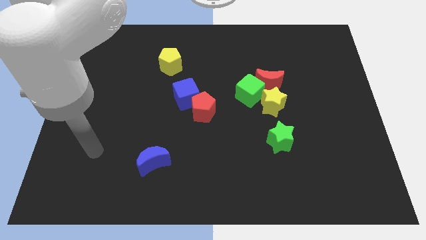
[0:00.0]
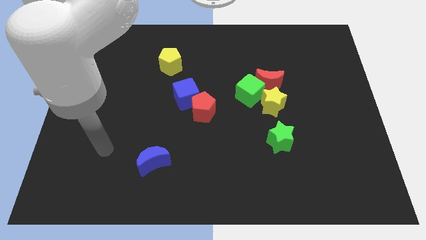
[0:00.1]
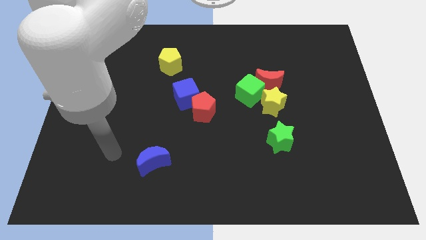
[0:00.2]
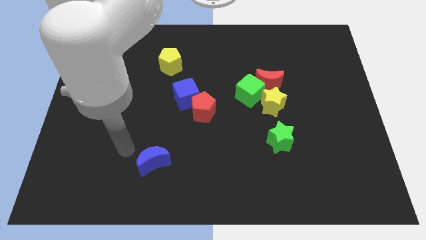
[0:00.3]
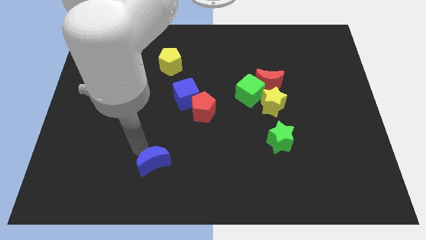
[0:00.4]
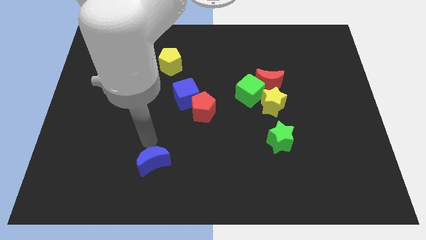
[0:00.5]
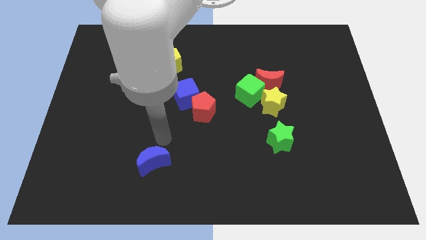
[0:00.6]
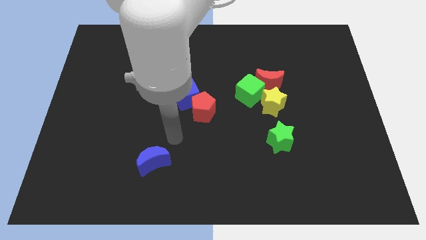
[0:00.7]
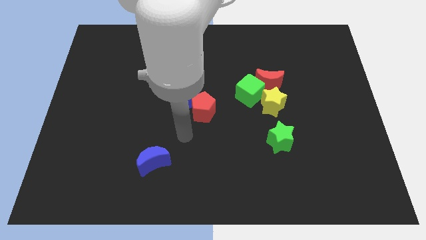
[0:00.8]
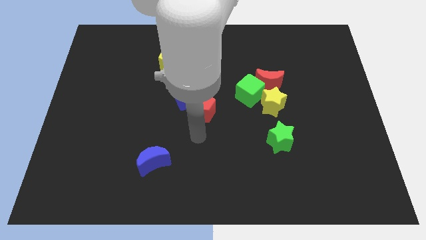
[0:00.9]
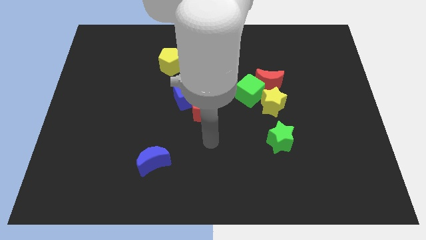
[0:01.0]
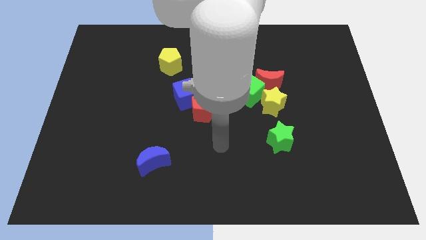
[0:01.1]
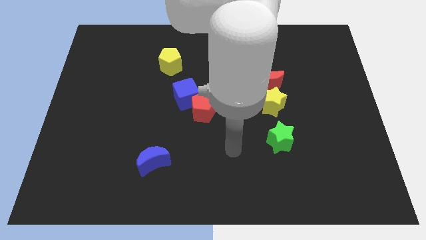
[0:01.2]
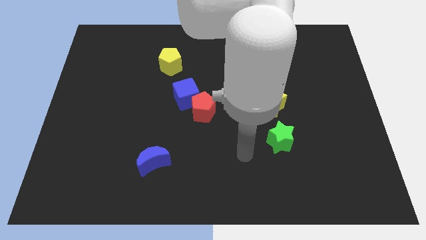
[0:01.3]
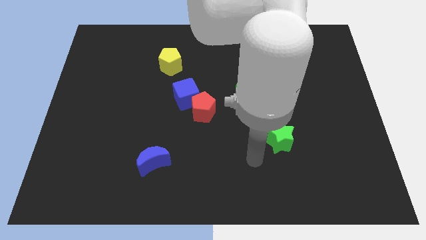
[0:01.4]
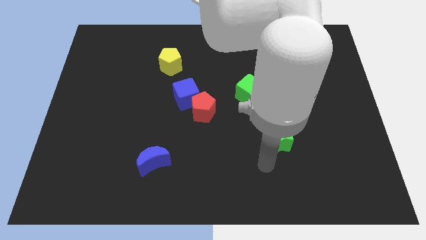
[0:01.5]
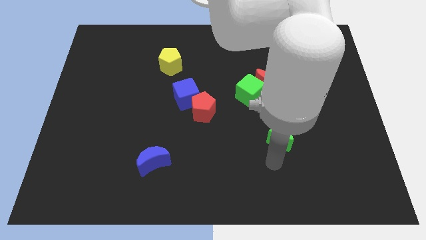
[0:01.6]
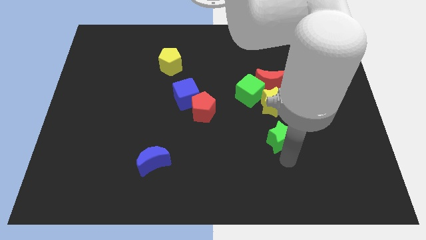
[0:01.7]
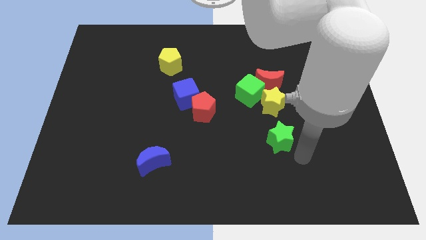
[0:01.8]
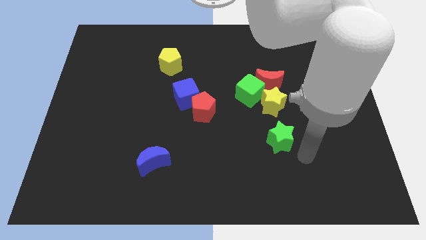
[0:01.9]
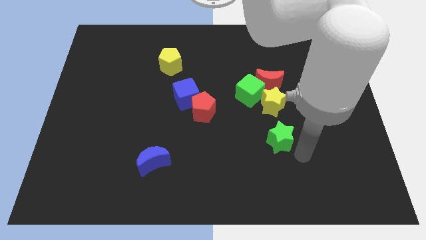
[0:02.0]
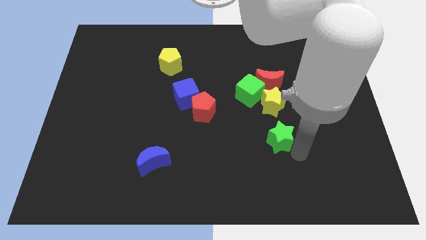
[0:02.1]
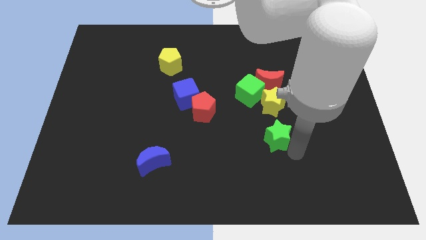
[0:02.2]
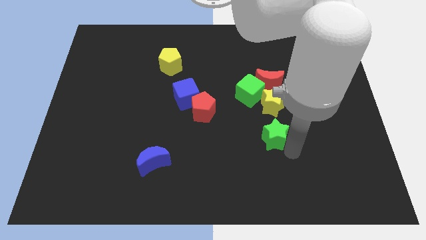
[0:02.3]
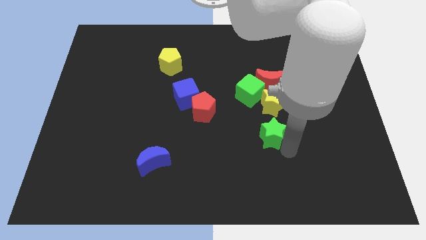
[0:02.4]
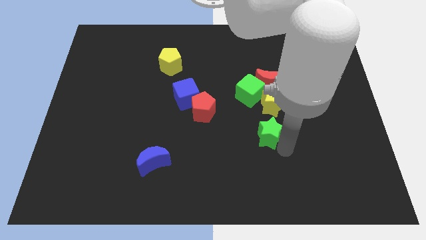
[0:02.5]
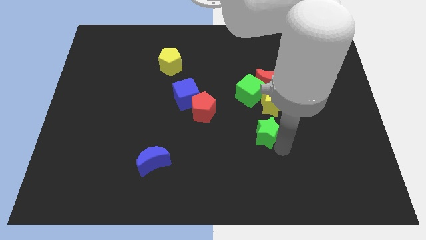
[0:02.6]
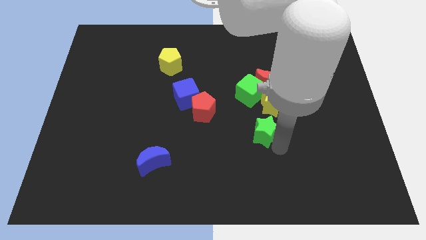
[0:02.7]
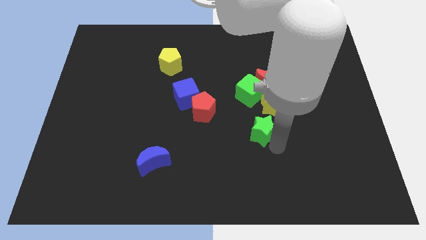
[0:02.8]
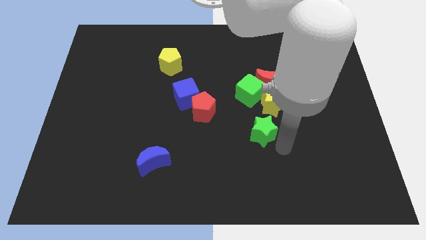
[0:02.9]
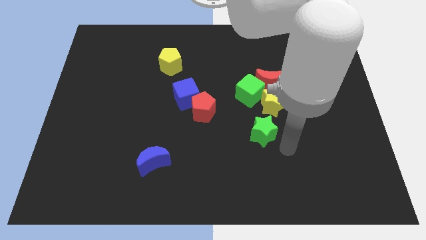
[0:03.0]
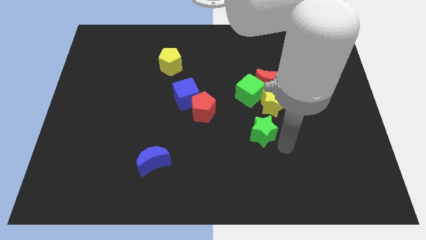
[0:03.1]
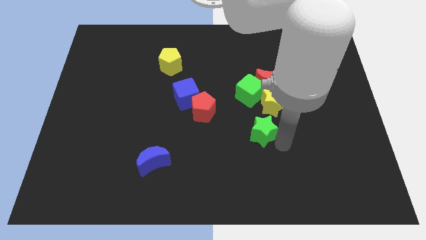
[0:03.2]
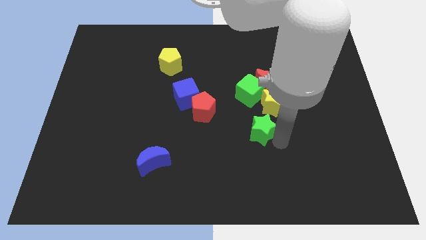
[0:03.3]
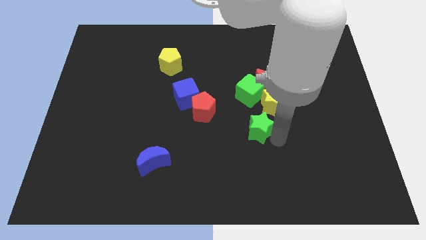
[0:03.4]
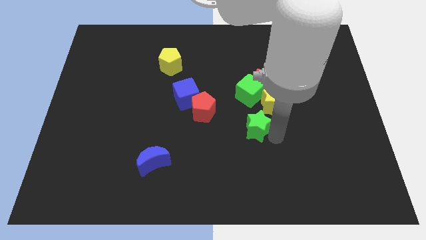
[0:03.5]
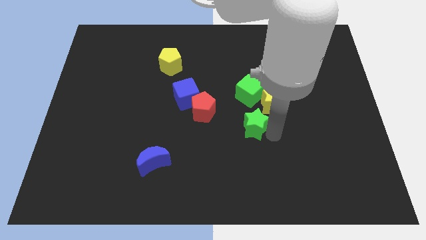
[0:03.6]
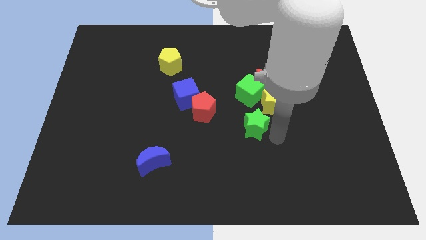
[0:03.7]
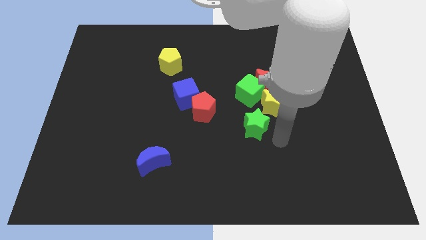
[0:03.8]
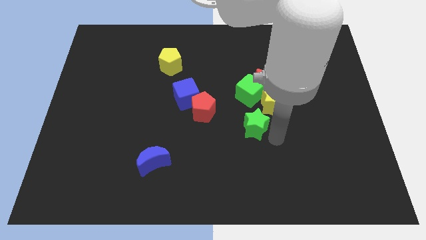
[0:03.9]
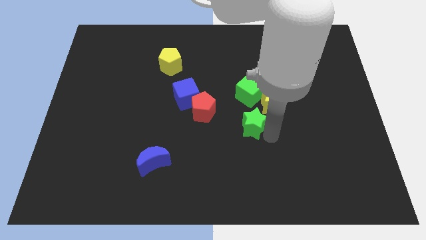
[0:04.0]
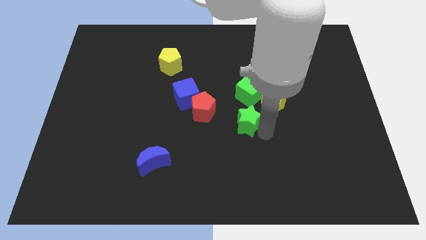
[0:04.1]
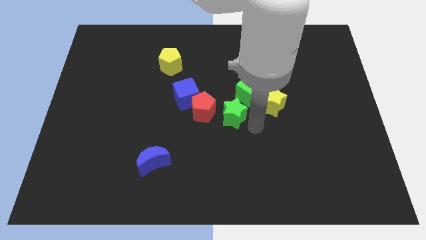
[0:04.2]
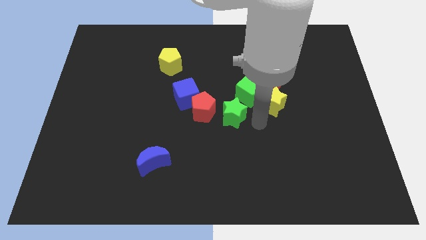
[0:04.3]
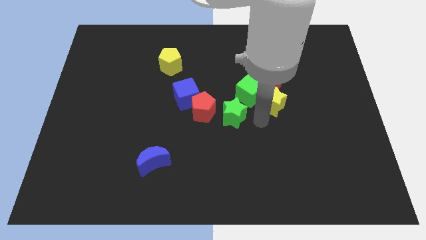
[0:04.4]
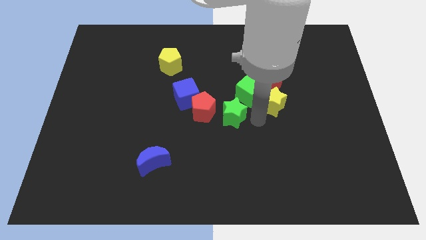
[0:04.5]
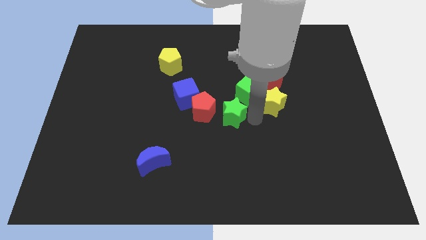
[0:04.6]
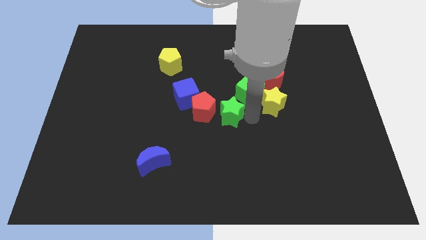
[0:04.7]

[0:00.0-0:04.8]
put the green star next to the red pentagon

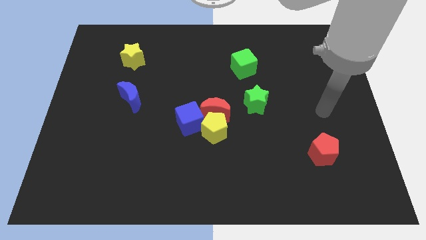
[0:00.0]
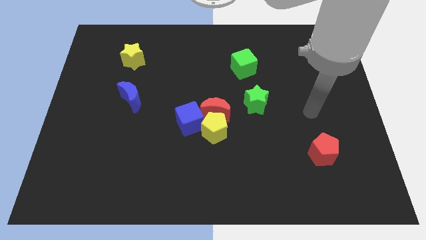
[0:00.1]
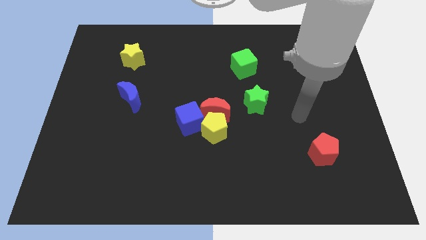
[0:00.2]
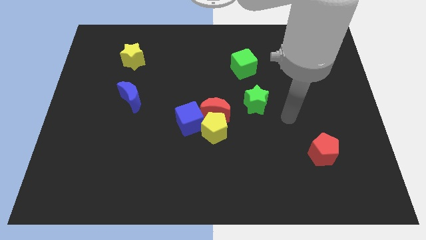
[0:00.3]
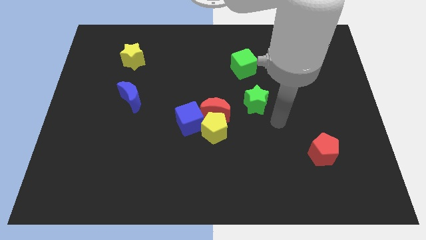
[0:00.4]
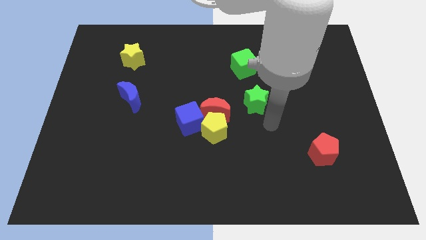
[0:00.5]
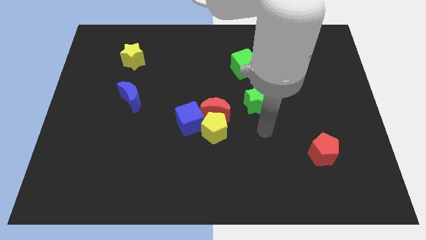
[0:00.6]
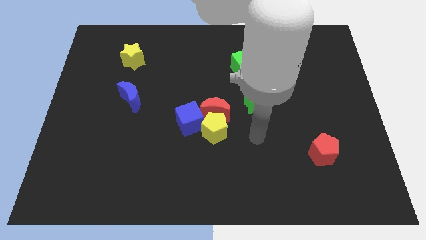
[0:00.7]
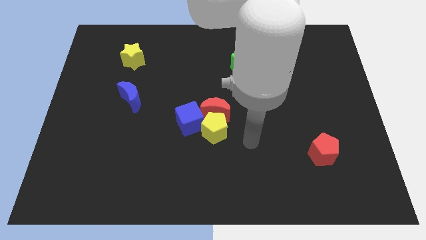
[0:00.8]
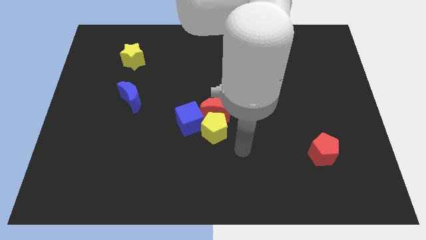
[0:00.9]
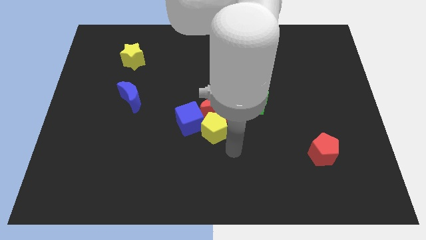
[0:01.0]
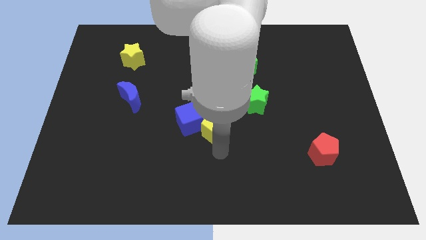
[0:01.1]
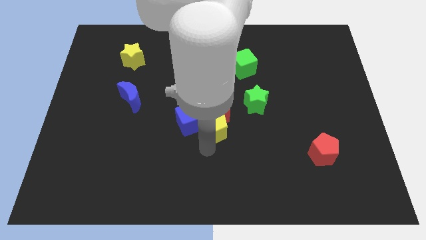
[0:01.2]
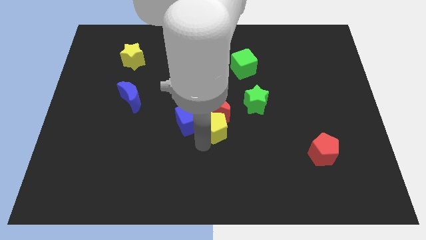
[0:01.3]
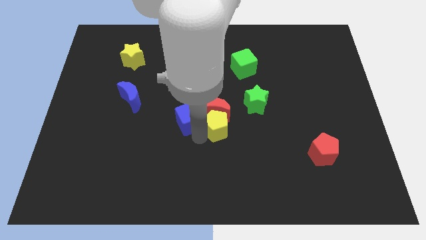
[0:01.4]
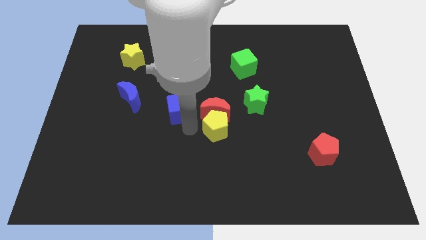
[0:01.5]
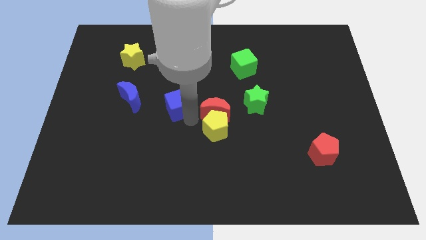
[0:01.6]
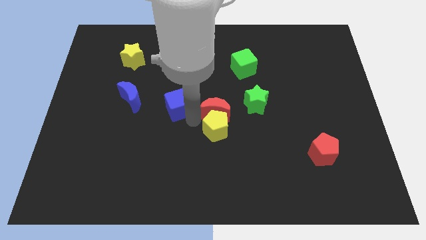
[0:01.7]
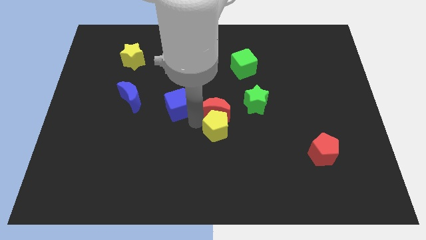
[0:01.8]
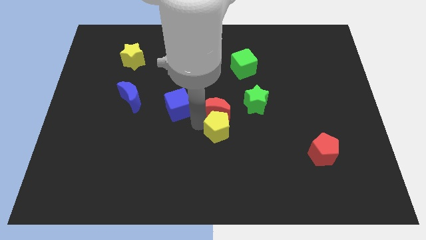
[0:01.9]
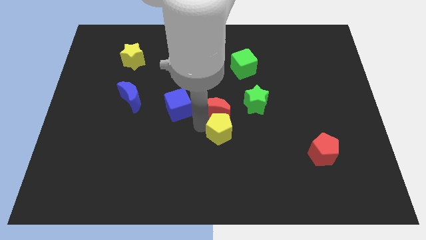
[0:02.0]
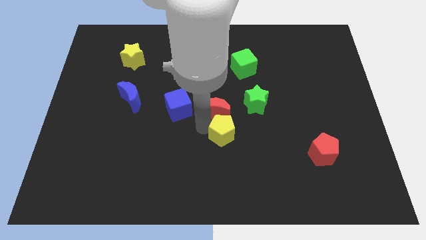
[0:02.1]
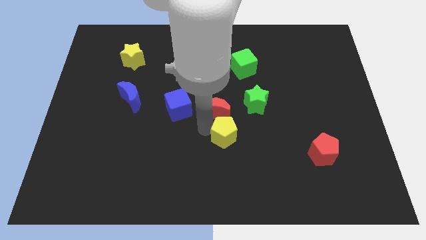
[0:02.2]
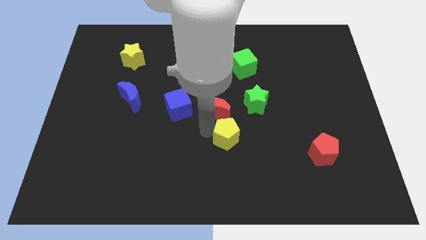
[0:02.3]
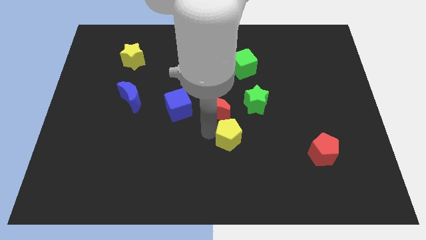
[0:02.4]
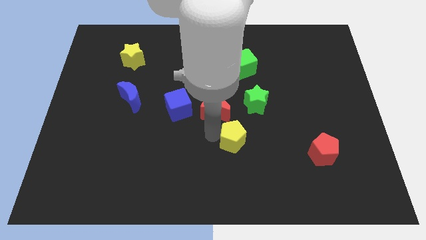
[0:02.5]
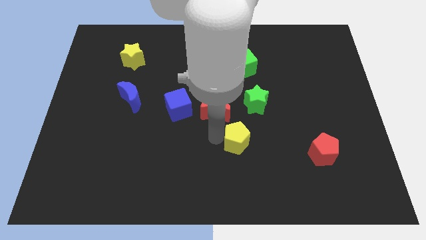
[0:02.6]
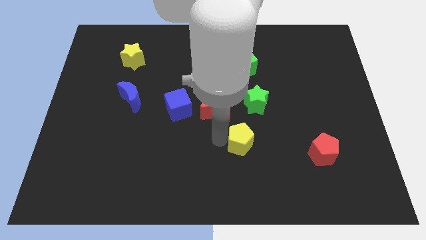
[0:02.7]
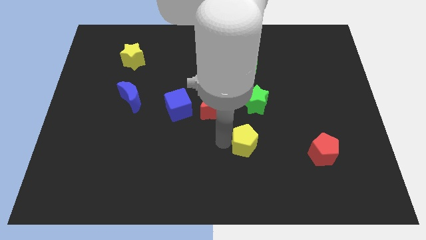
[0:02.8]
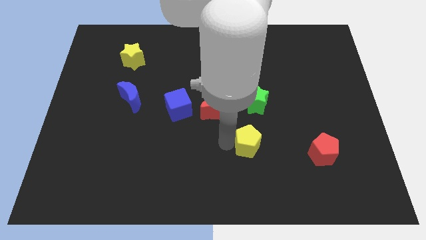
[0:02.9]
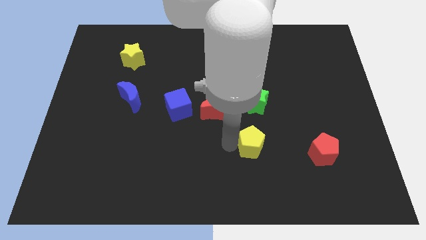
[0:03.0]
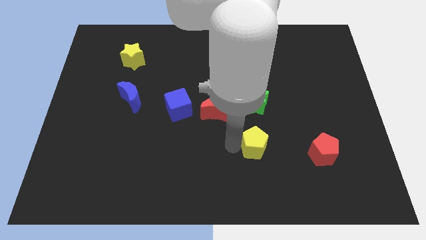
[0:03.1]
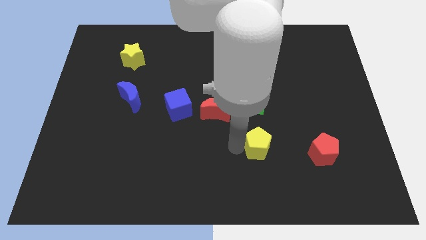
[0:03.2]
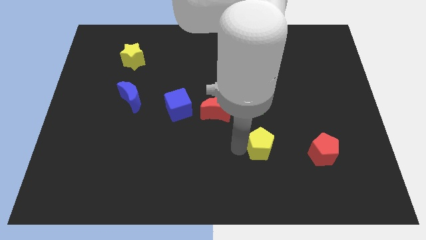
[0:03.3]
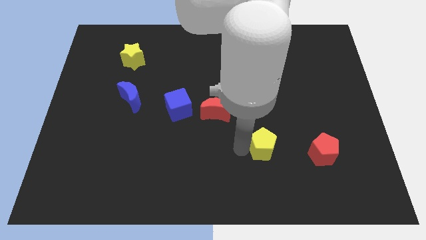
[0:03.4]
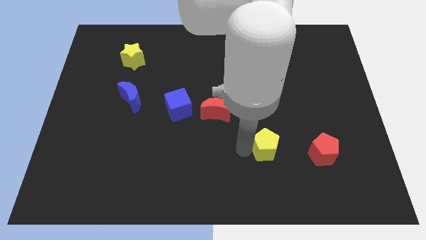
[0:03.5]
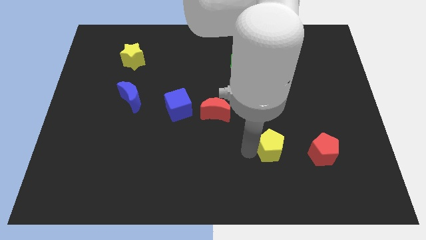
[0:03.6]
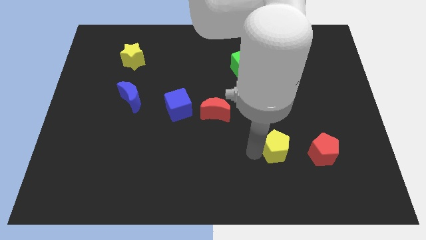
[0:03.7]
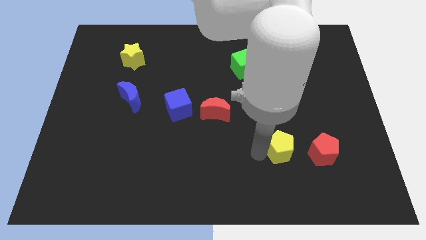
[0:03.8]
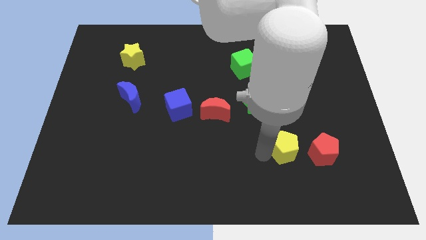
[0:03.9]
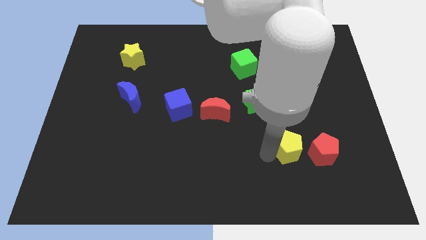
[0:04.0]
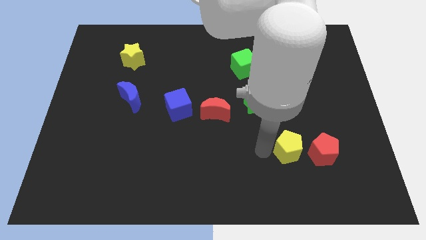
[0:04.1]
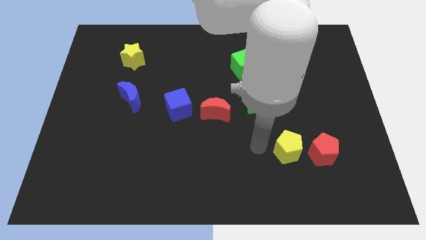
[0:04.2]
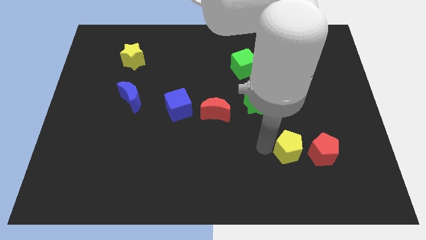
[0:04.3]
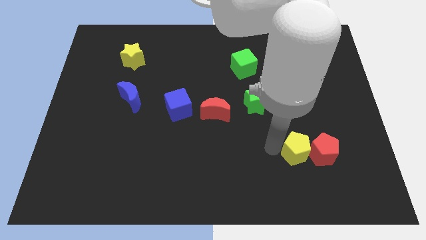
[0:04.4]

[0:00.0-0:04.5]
slide the yellow pentagon next to the red pentagon
